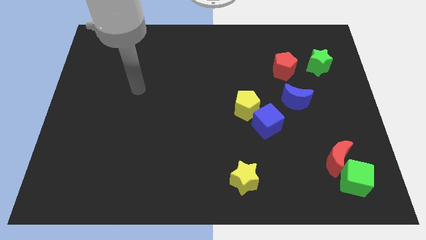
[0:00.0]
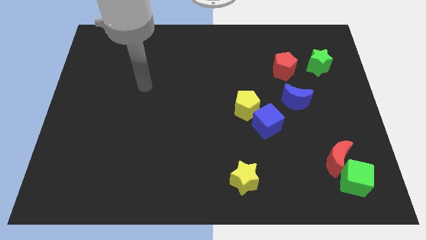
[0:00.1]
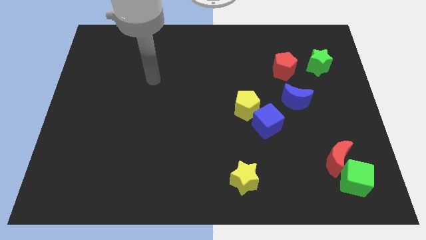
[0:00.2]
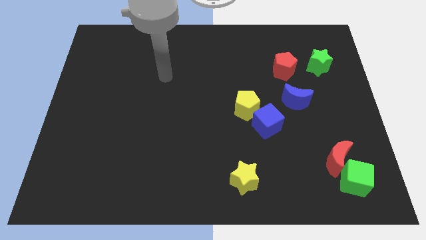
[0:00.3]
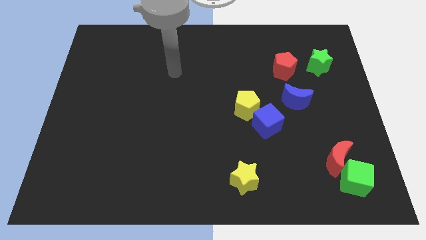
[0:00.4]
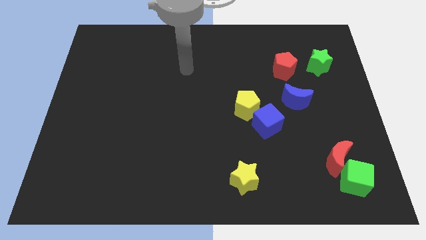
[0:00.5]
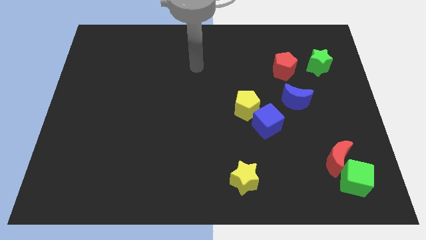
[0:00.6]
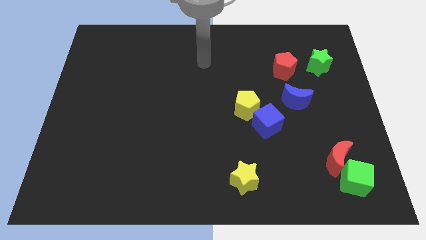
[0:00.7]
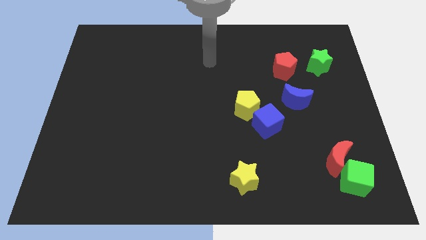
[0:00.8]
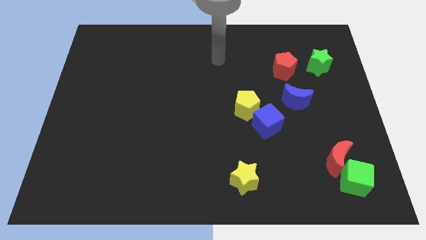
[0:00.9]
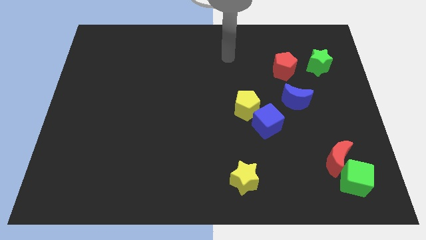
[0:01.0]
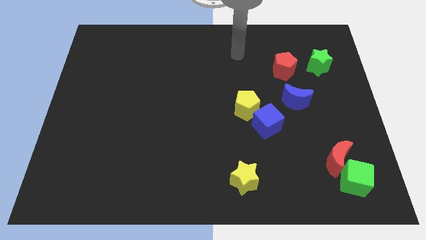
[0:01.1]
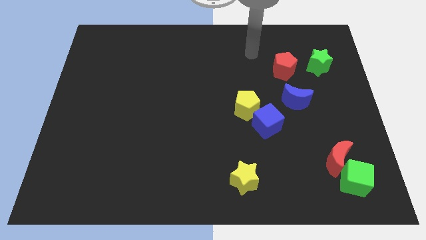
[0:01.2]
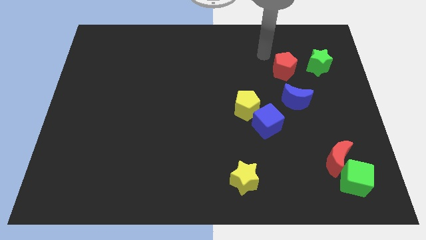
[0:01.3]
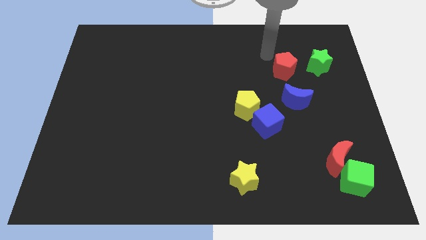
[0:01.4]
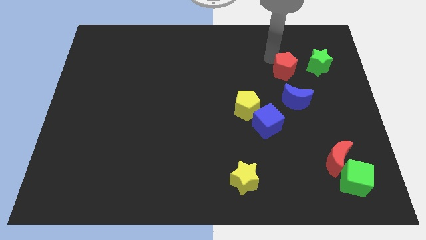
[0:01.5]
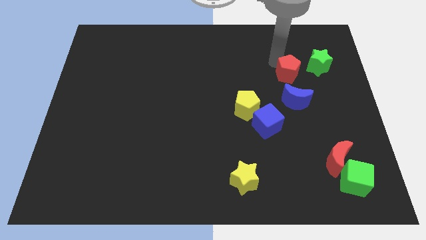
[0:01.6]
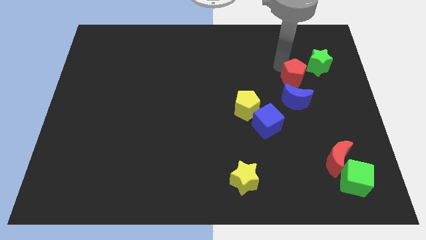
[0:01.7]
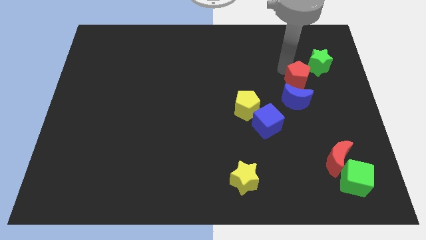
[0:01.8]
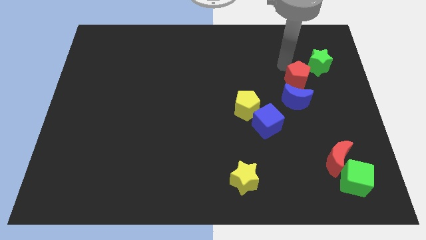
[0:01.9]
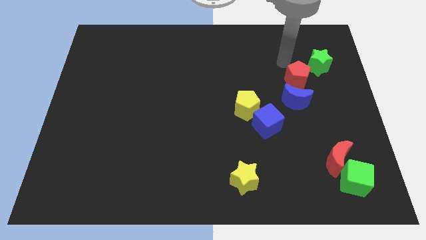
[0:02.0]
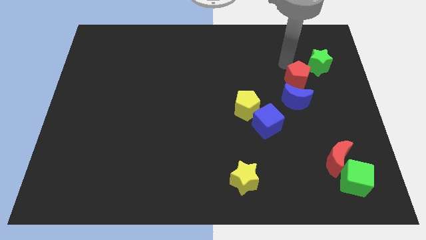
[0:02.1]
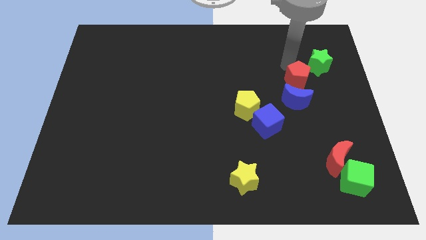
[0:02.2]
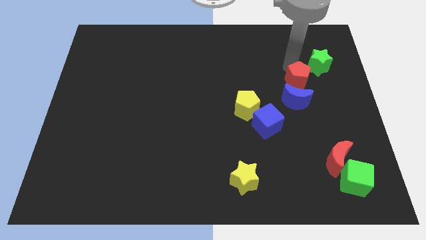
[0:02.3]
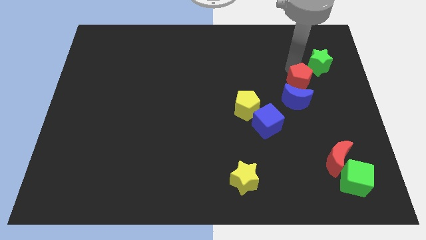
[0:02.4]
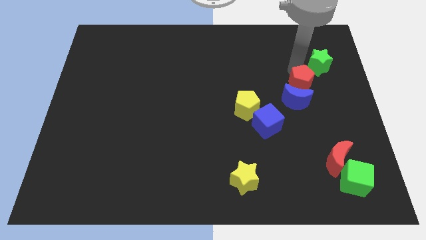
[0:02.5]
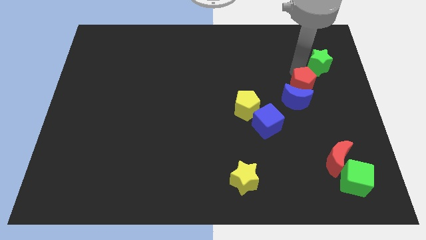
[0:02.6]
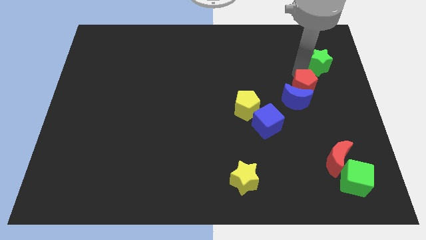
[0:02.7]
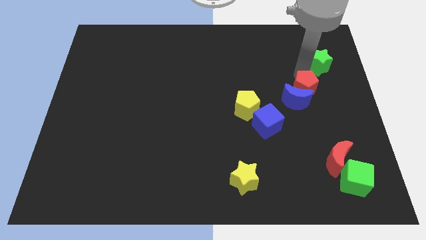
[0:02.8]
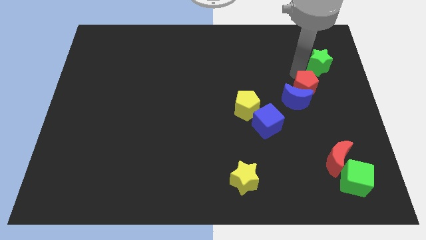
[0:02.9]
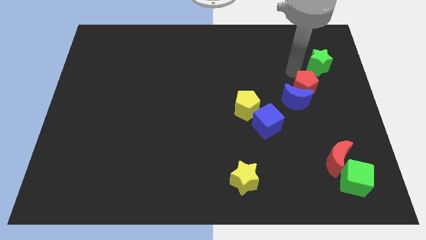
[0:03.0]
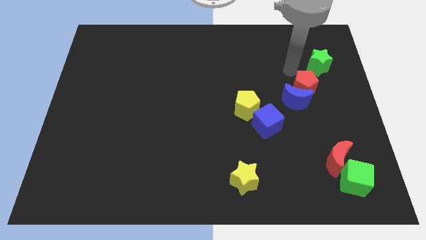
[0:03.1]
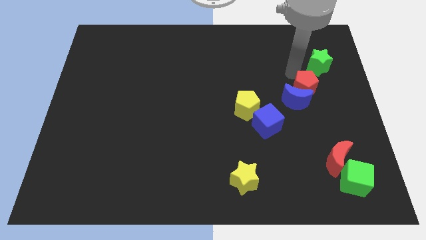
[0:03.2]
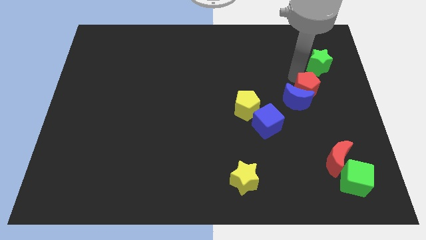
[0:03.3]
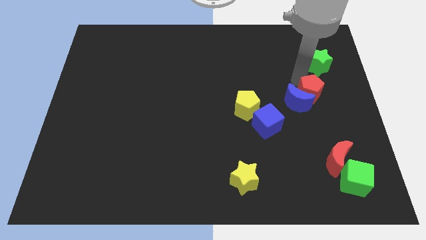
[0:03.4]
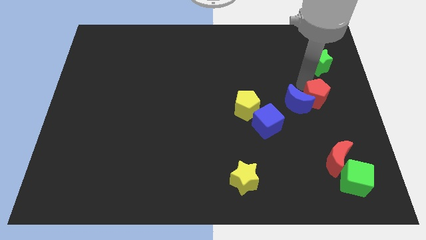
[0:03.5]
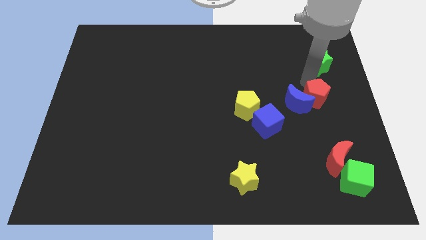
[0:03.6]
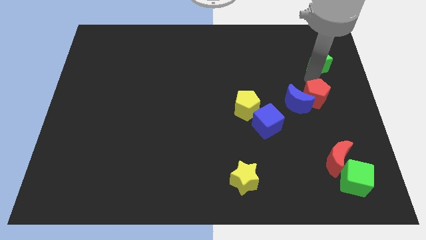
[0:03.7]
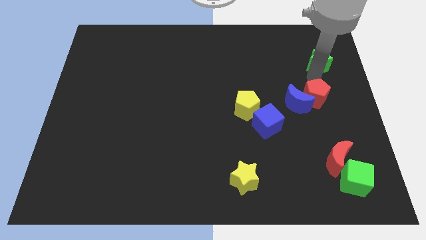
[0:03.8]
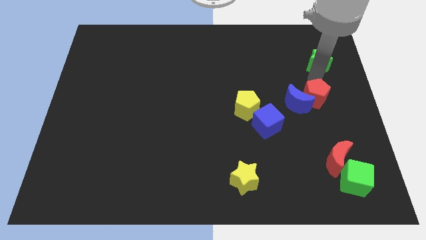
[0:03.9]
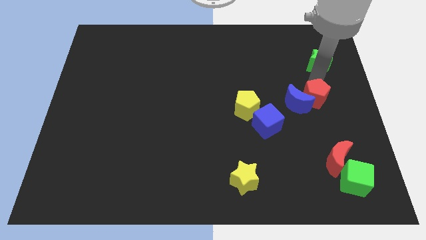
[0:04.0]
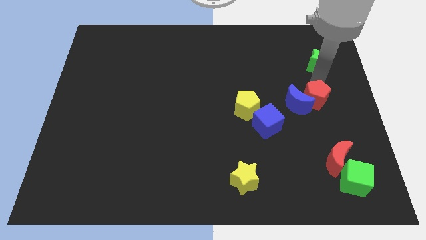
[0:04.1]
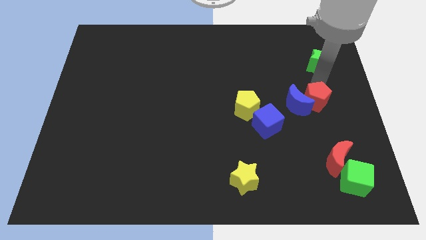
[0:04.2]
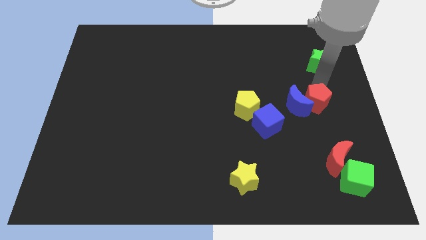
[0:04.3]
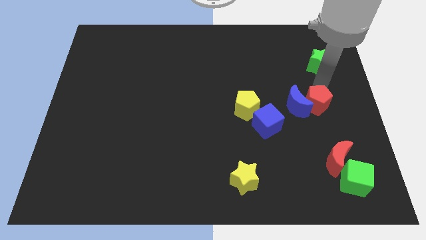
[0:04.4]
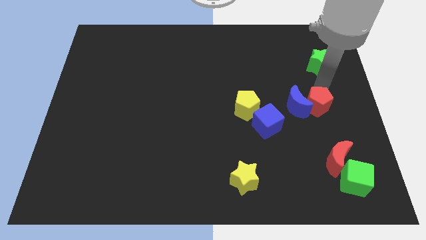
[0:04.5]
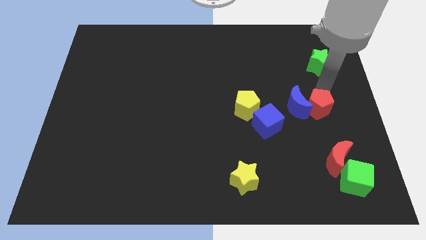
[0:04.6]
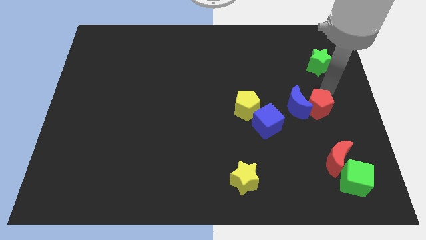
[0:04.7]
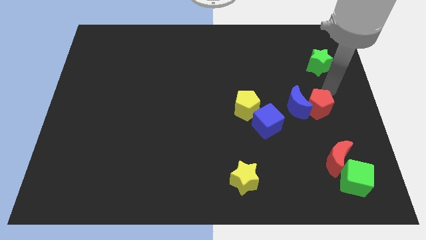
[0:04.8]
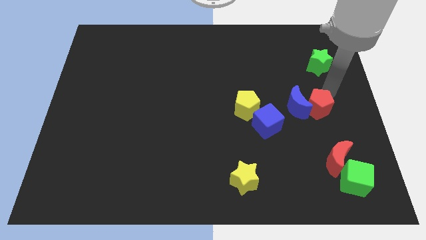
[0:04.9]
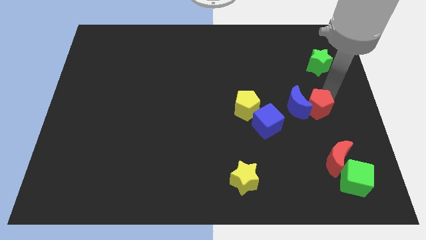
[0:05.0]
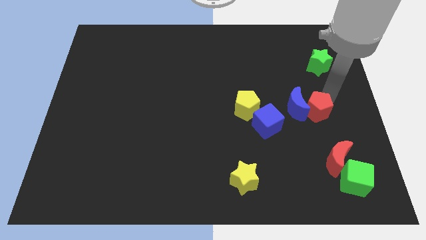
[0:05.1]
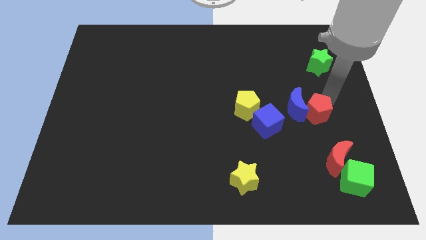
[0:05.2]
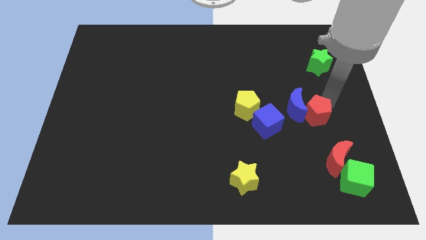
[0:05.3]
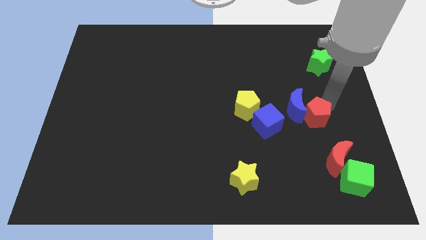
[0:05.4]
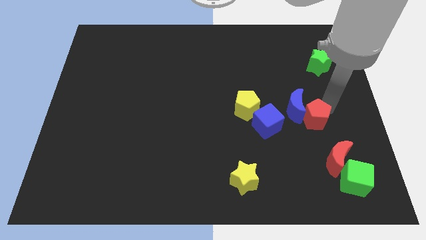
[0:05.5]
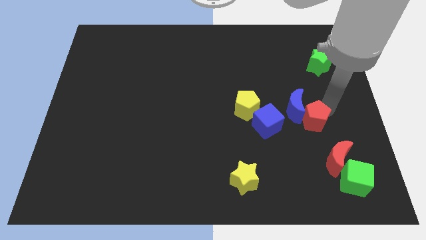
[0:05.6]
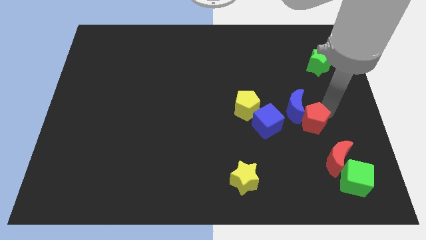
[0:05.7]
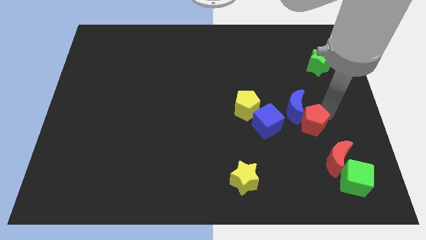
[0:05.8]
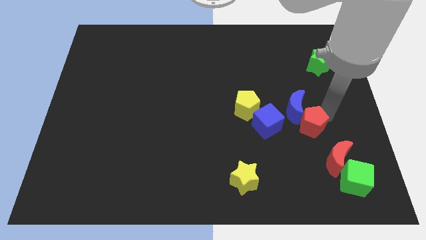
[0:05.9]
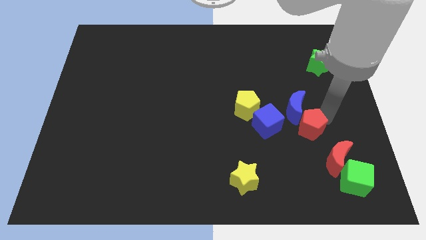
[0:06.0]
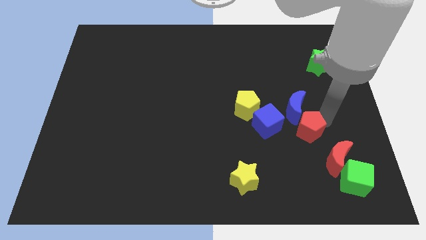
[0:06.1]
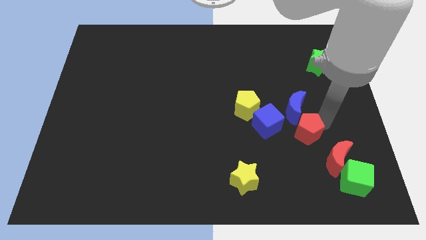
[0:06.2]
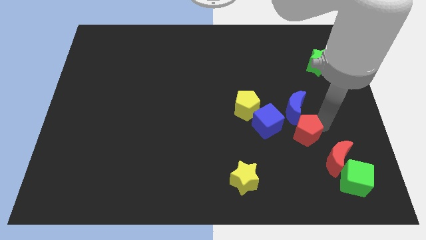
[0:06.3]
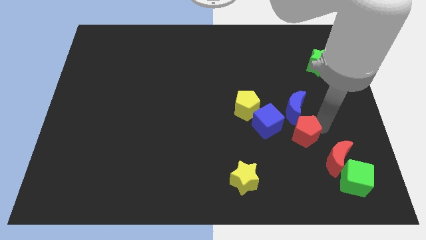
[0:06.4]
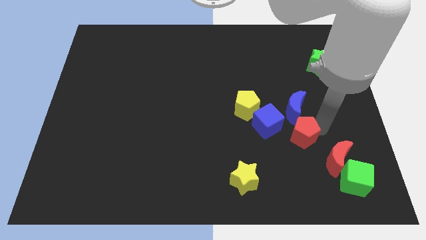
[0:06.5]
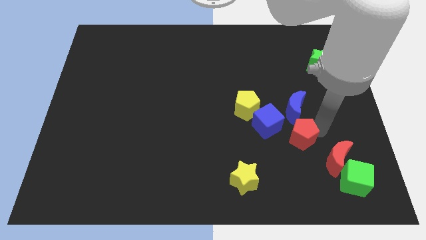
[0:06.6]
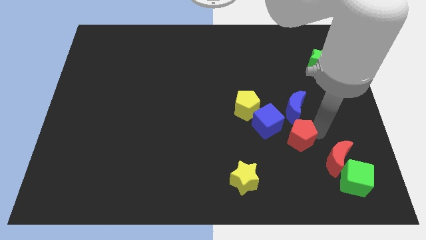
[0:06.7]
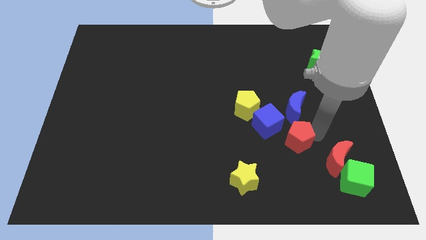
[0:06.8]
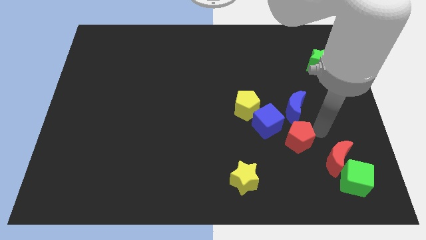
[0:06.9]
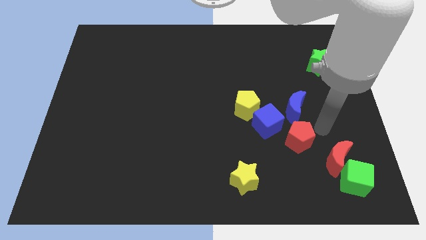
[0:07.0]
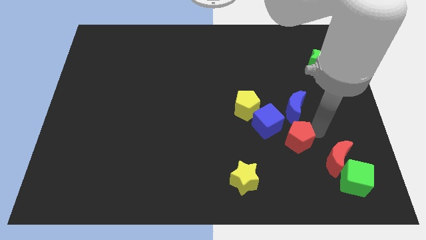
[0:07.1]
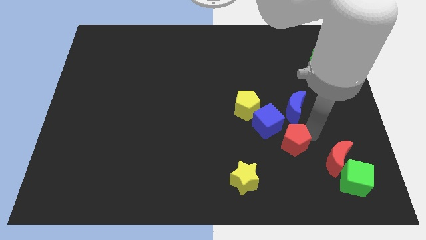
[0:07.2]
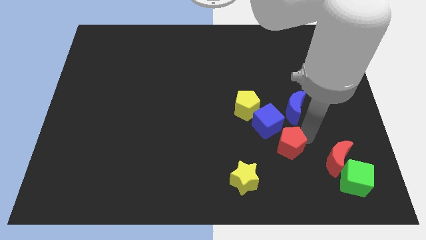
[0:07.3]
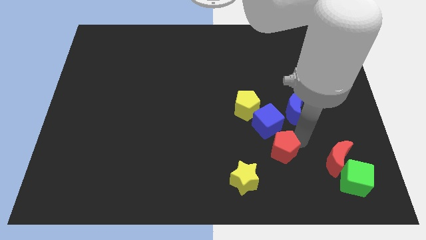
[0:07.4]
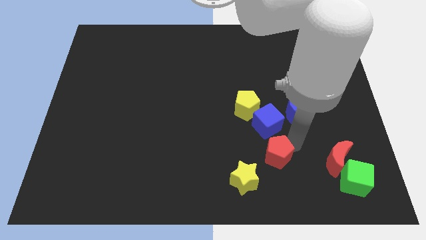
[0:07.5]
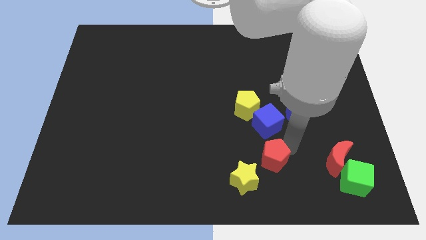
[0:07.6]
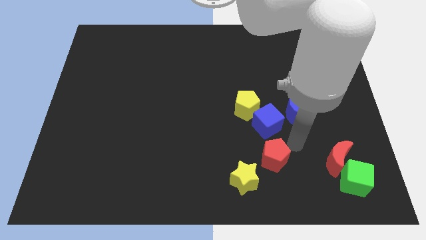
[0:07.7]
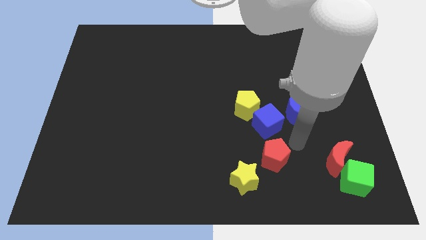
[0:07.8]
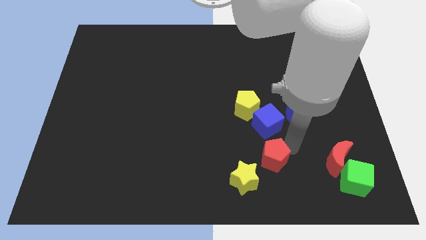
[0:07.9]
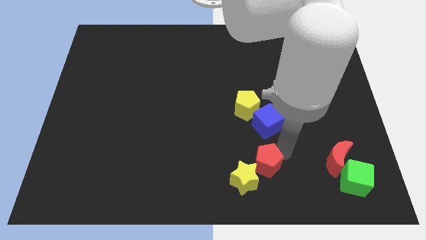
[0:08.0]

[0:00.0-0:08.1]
put the red pentagon to the yellow star
